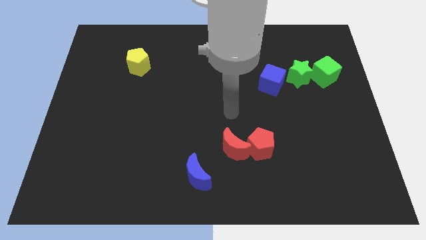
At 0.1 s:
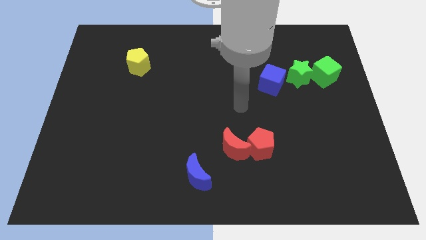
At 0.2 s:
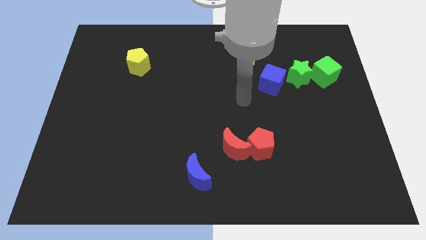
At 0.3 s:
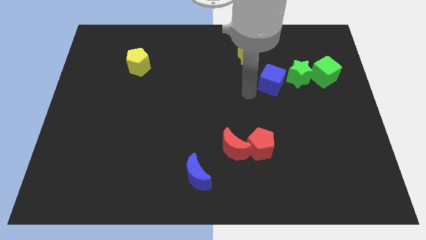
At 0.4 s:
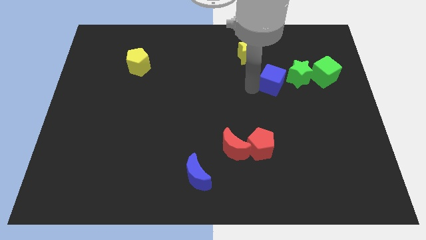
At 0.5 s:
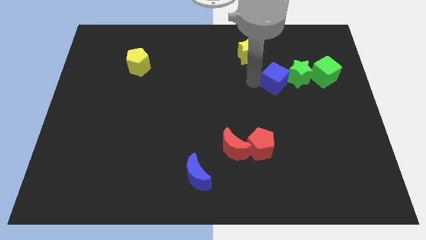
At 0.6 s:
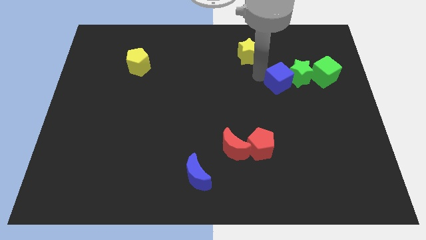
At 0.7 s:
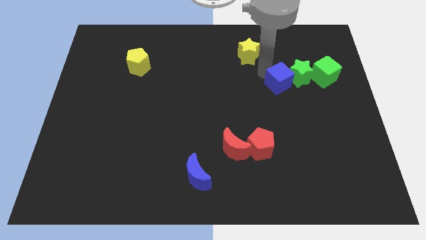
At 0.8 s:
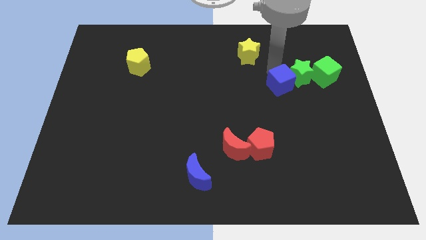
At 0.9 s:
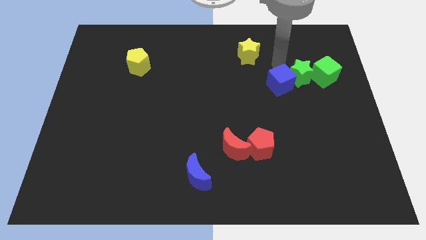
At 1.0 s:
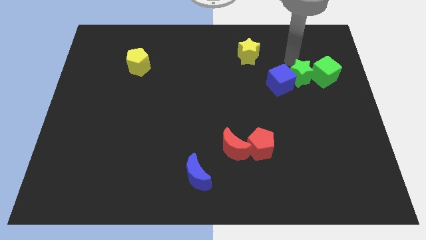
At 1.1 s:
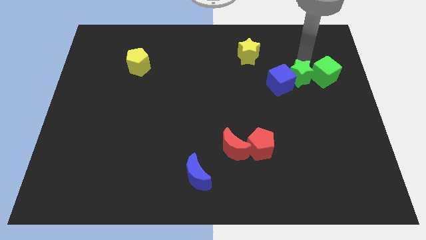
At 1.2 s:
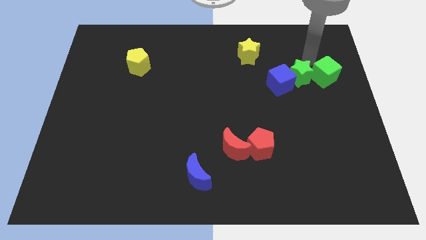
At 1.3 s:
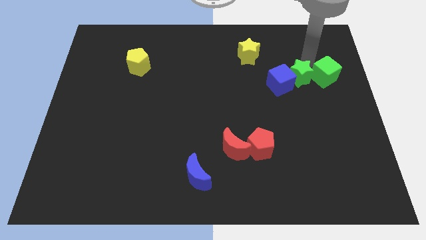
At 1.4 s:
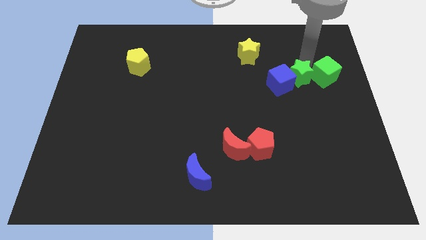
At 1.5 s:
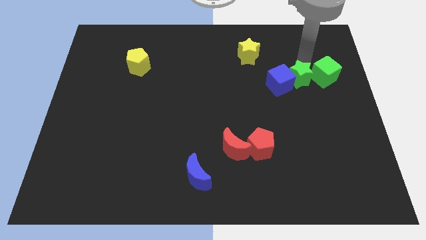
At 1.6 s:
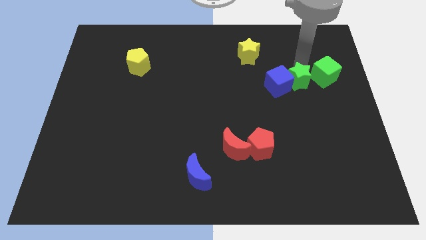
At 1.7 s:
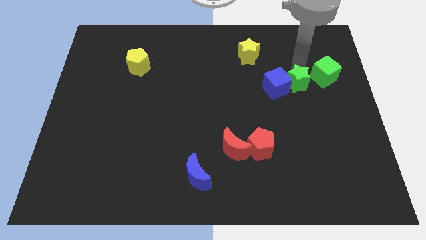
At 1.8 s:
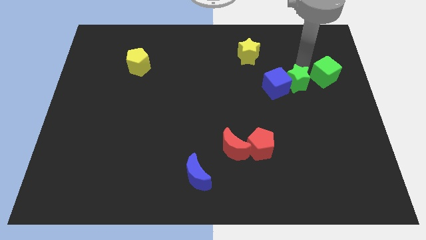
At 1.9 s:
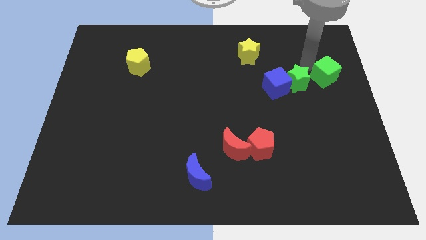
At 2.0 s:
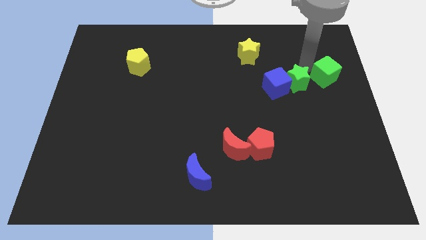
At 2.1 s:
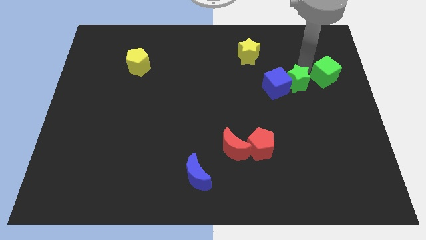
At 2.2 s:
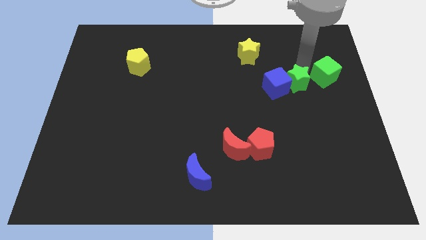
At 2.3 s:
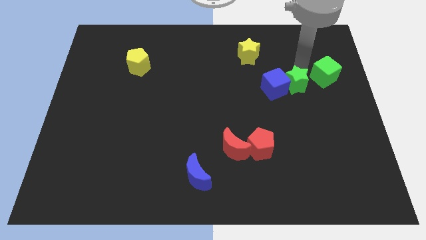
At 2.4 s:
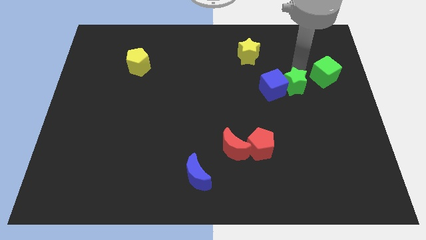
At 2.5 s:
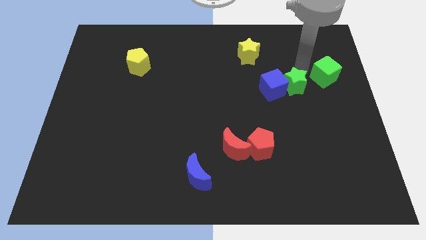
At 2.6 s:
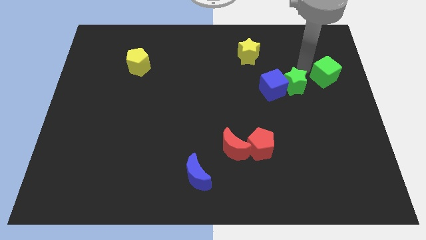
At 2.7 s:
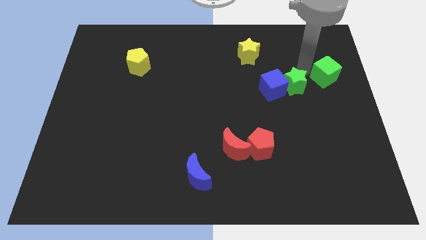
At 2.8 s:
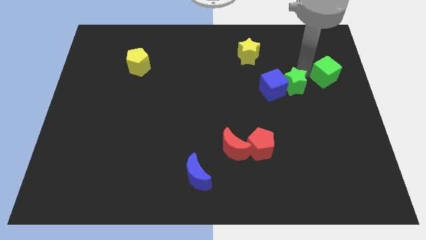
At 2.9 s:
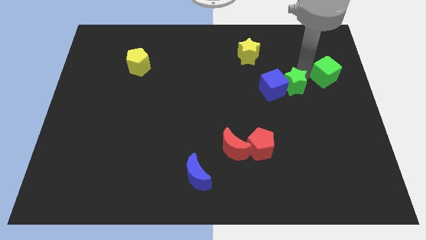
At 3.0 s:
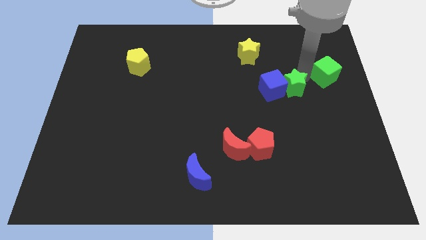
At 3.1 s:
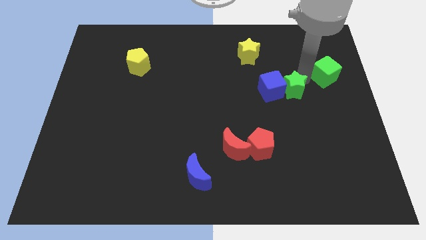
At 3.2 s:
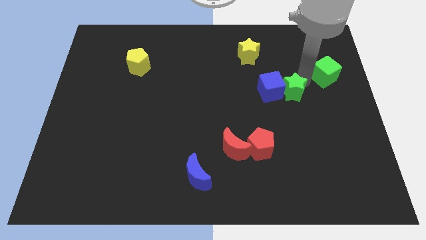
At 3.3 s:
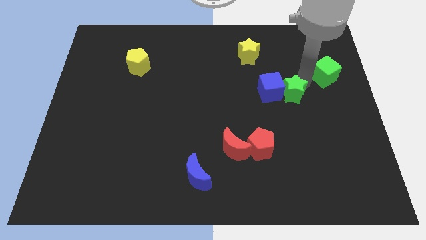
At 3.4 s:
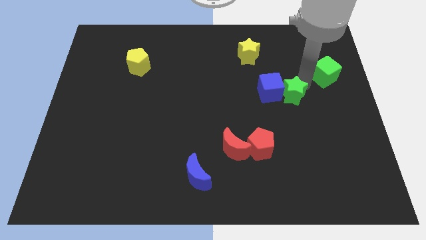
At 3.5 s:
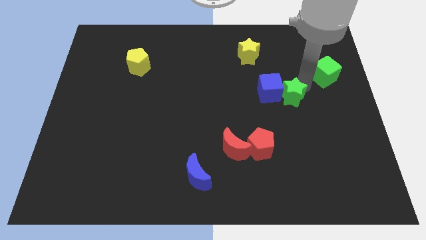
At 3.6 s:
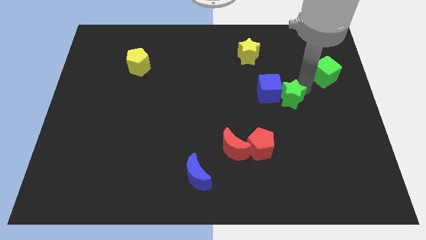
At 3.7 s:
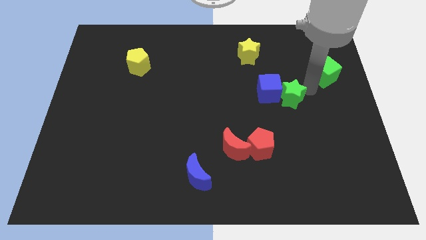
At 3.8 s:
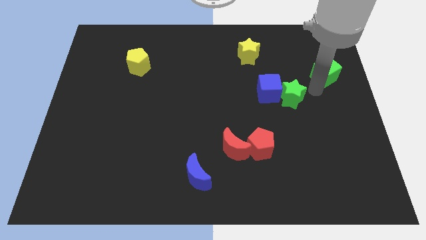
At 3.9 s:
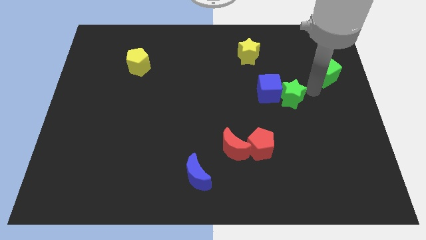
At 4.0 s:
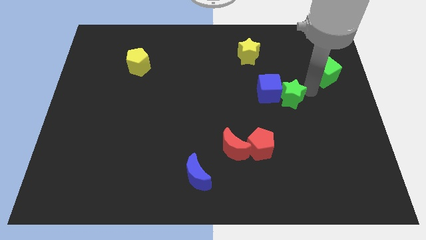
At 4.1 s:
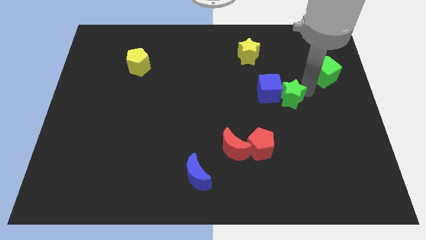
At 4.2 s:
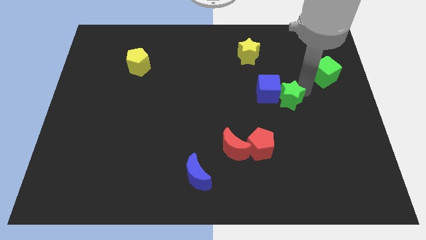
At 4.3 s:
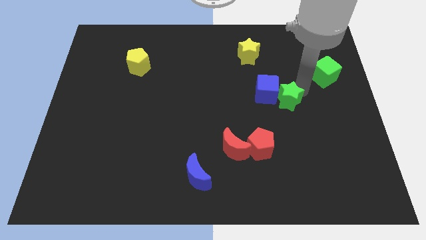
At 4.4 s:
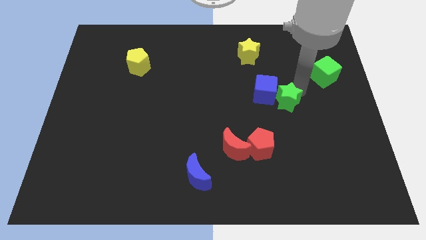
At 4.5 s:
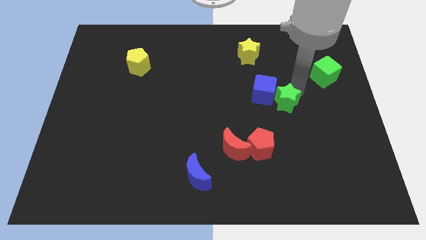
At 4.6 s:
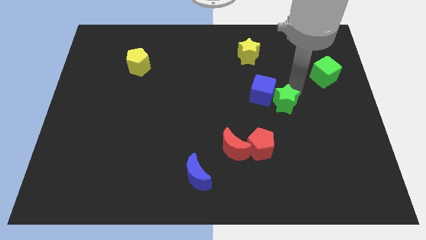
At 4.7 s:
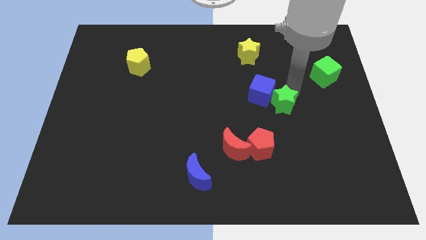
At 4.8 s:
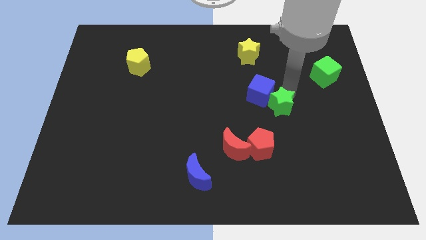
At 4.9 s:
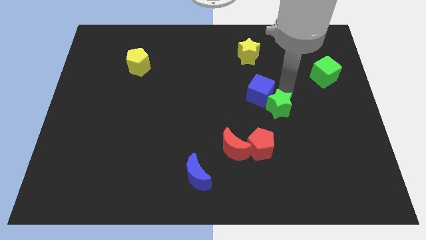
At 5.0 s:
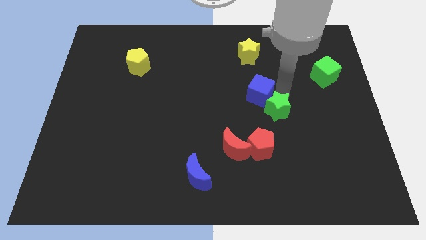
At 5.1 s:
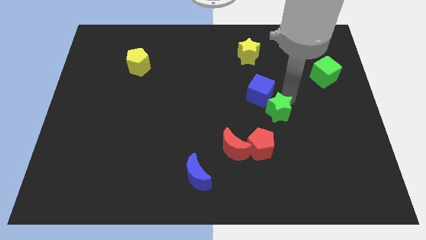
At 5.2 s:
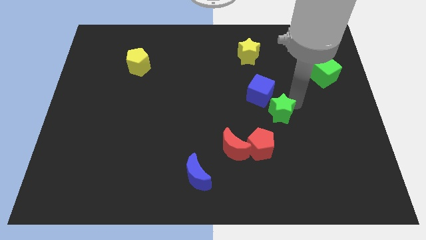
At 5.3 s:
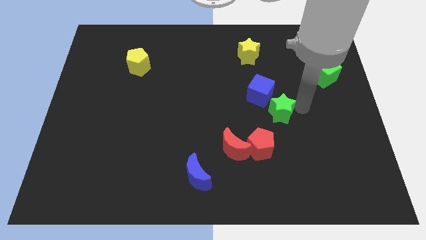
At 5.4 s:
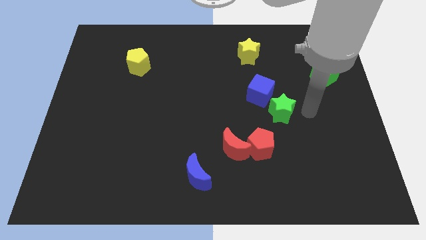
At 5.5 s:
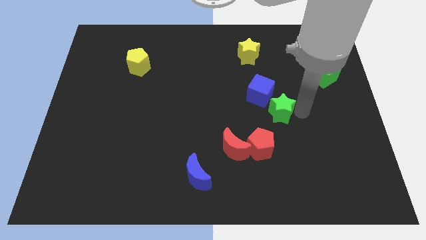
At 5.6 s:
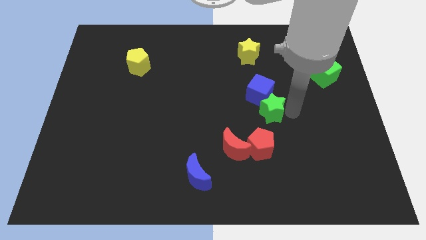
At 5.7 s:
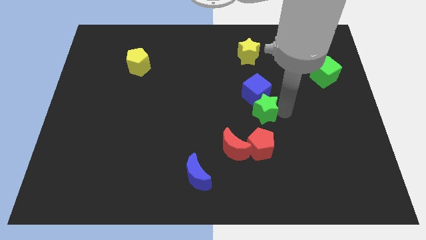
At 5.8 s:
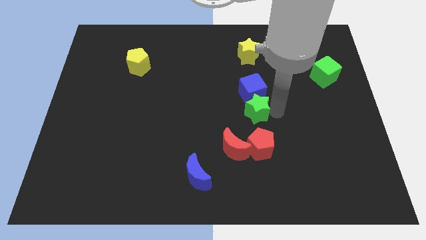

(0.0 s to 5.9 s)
put the green star diagonally down and to the left of the blue cube

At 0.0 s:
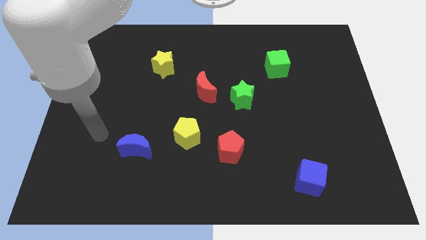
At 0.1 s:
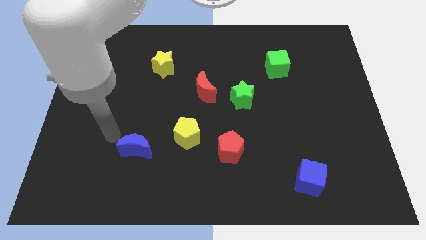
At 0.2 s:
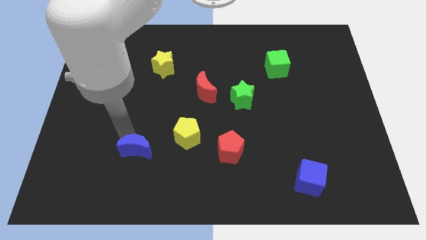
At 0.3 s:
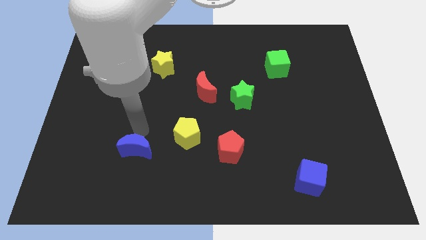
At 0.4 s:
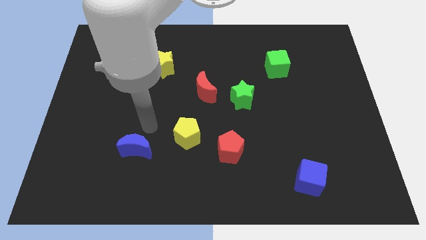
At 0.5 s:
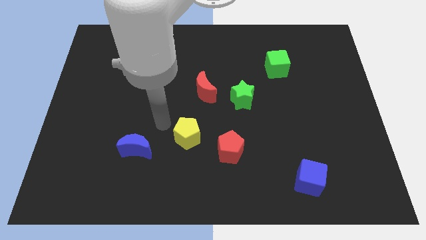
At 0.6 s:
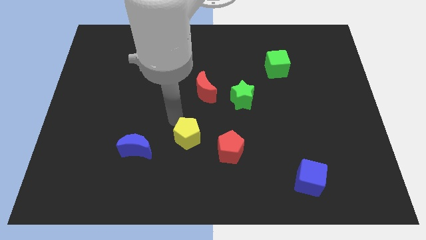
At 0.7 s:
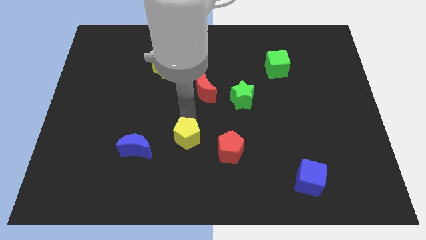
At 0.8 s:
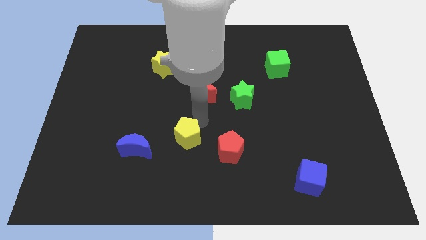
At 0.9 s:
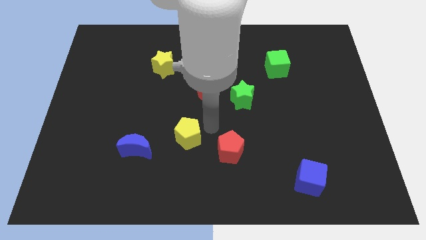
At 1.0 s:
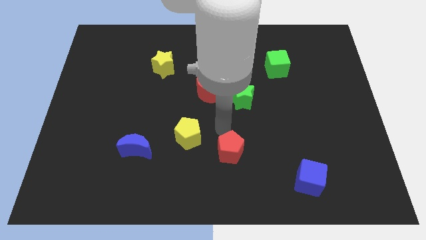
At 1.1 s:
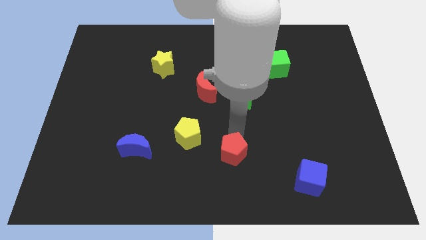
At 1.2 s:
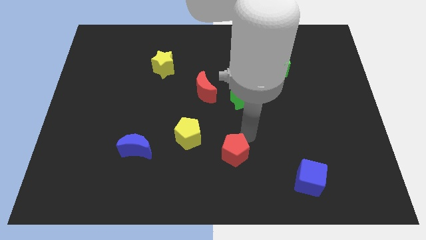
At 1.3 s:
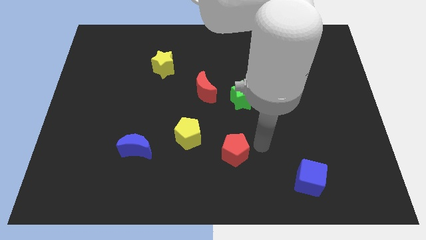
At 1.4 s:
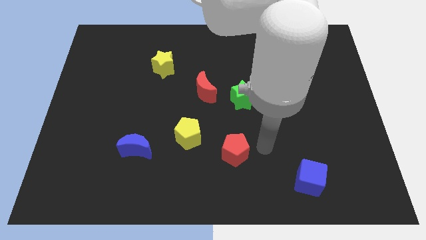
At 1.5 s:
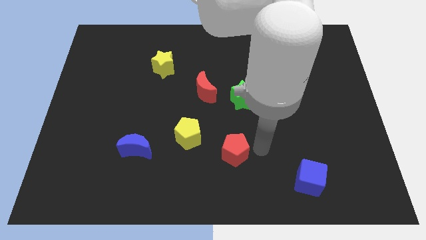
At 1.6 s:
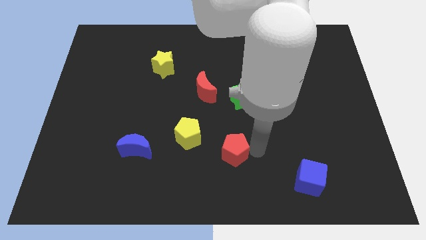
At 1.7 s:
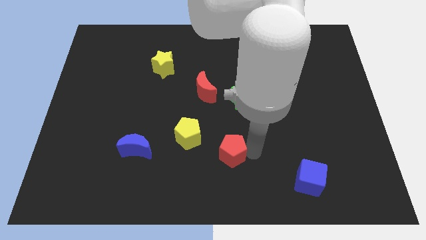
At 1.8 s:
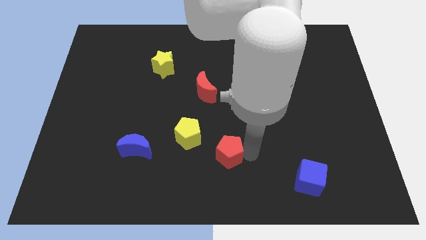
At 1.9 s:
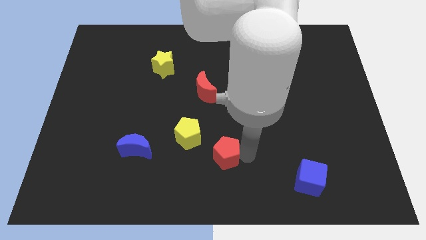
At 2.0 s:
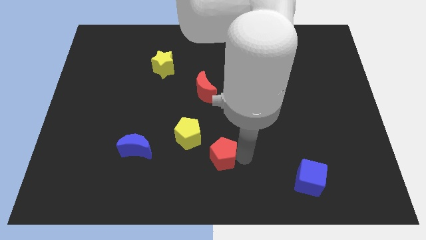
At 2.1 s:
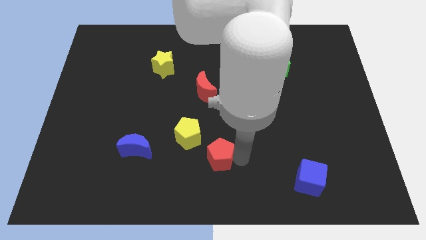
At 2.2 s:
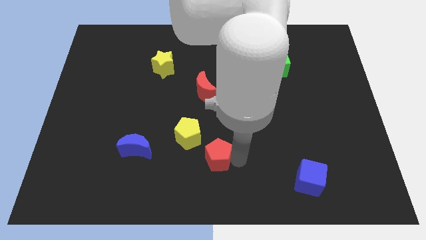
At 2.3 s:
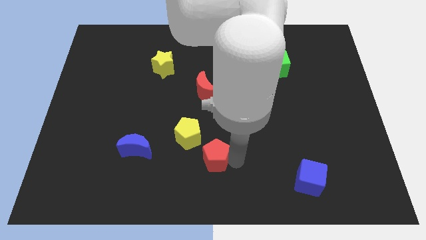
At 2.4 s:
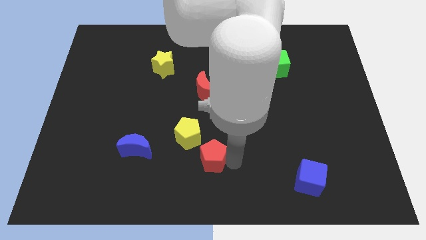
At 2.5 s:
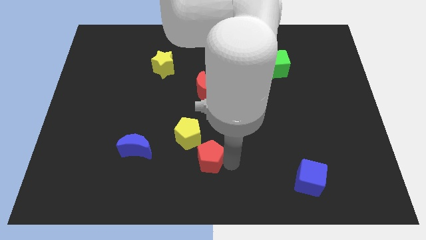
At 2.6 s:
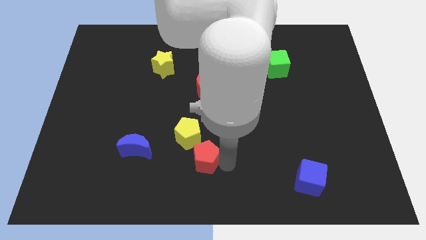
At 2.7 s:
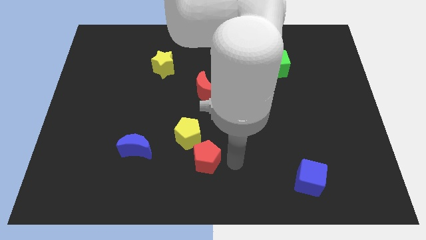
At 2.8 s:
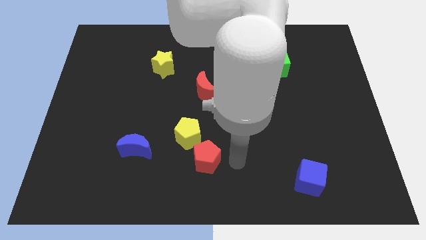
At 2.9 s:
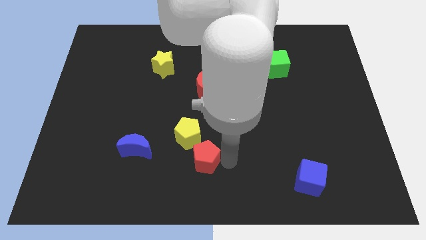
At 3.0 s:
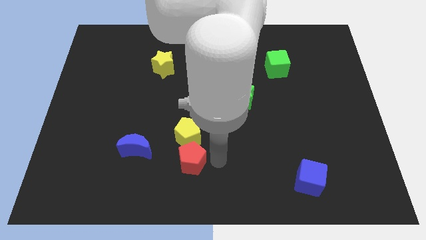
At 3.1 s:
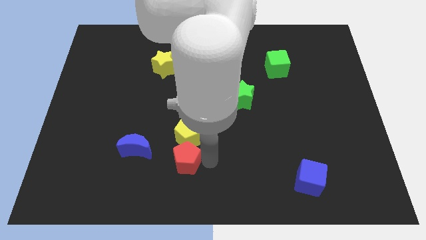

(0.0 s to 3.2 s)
move the red pentagon to the bottom left side of the yellow pentagon
